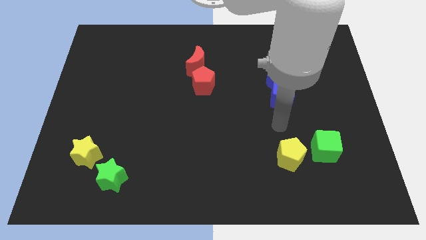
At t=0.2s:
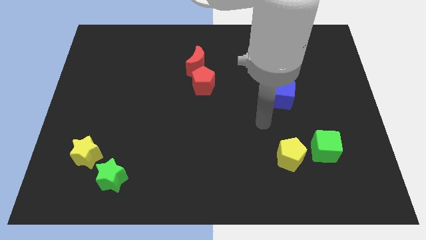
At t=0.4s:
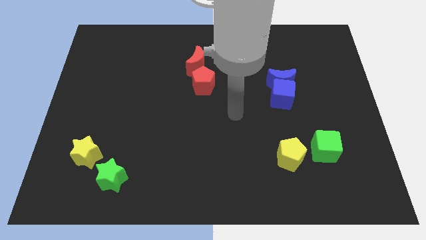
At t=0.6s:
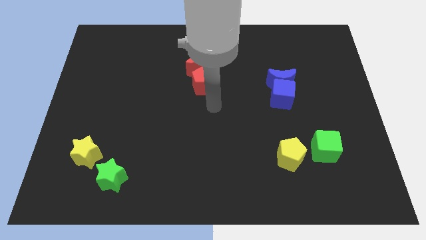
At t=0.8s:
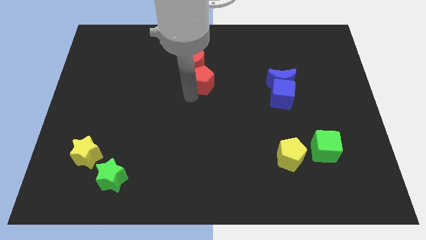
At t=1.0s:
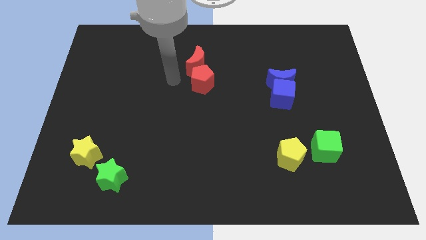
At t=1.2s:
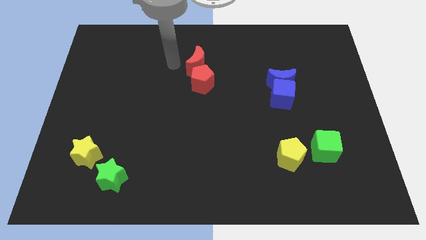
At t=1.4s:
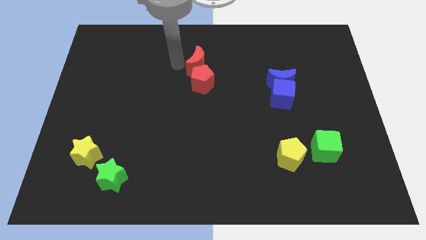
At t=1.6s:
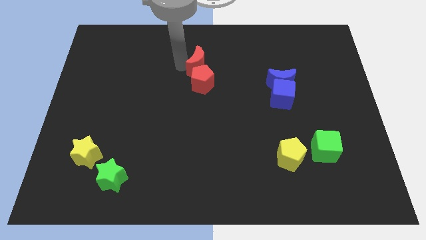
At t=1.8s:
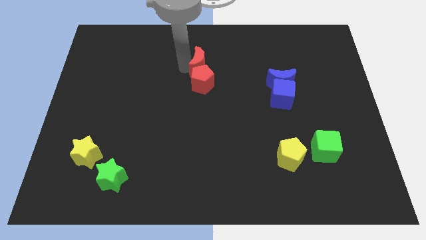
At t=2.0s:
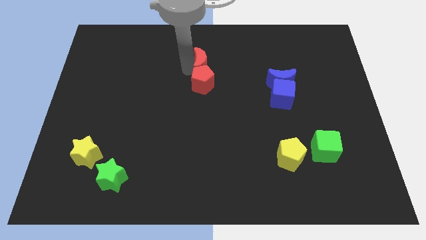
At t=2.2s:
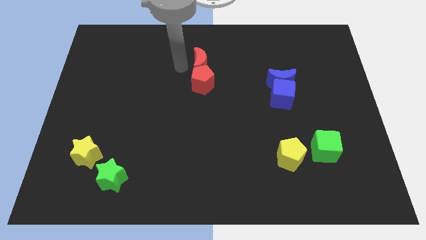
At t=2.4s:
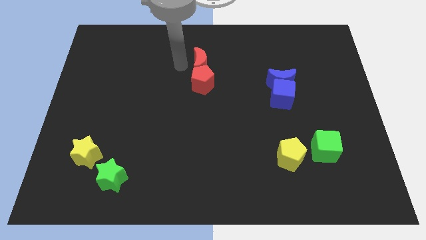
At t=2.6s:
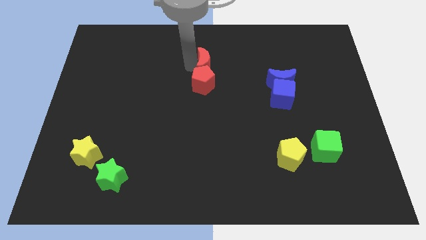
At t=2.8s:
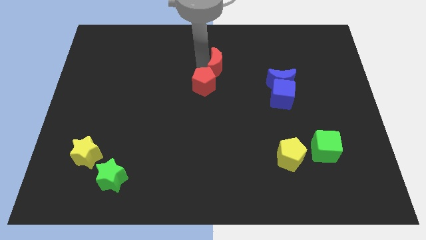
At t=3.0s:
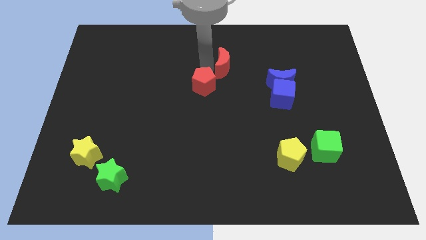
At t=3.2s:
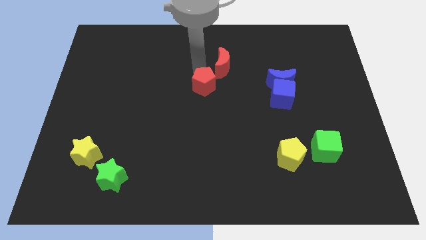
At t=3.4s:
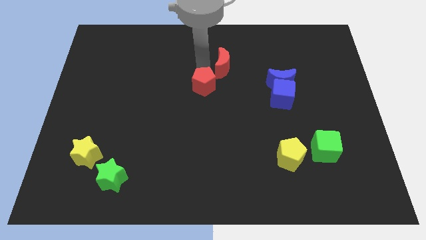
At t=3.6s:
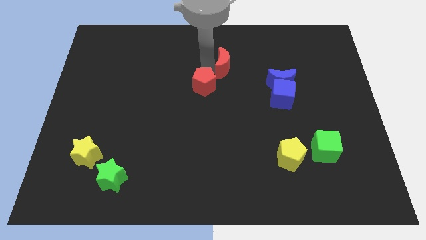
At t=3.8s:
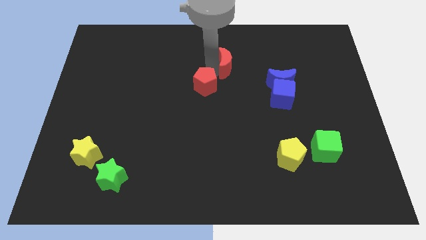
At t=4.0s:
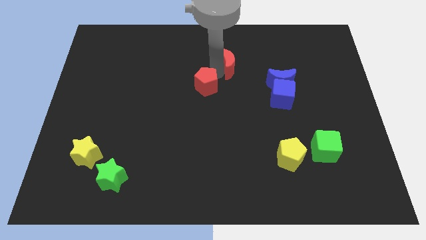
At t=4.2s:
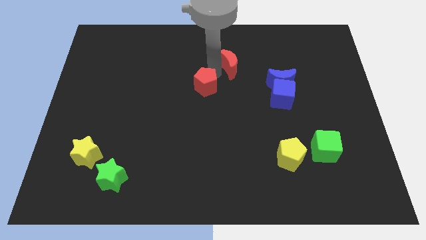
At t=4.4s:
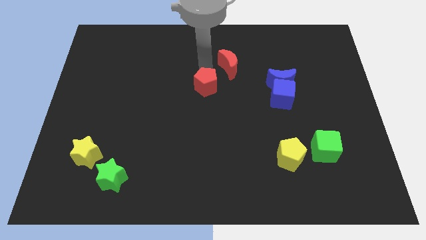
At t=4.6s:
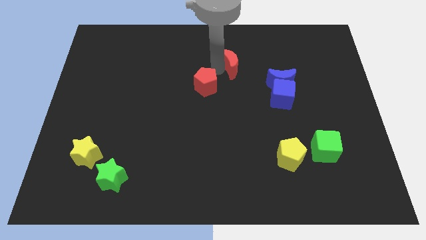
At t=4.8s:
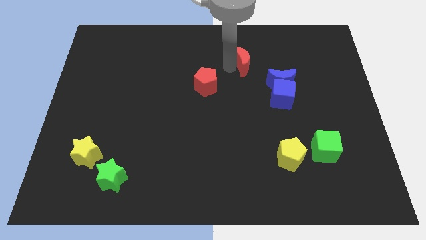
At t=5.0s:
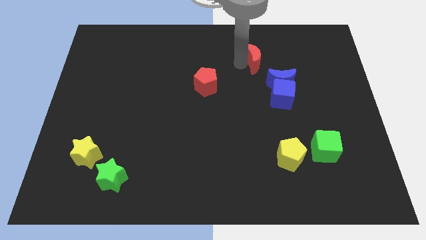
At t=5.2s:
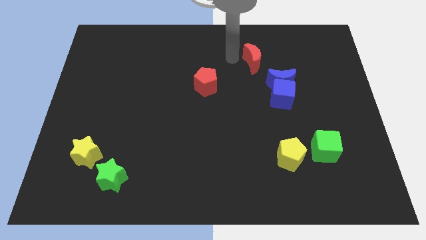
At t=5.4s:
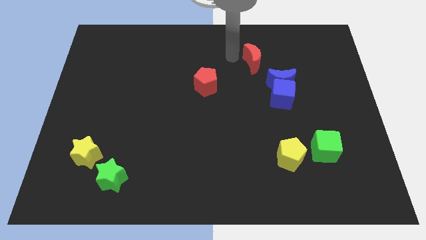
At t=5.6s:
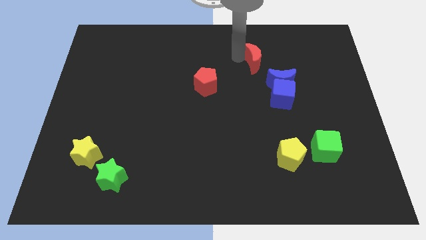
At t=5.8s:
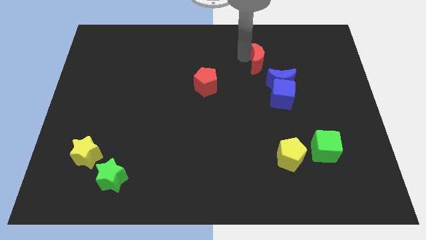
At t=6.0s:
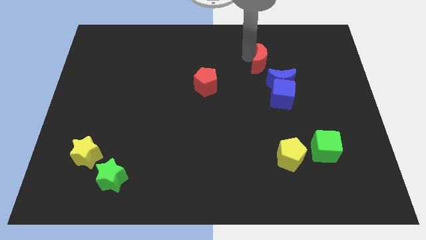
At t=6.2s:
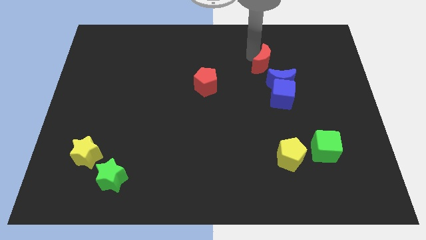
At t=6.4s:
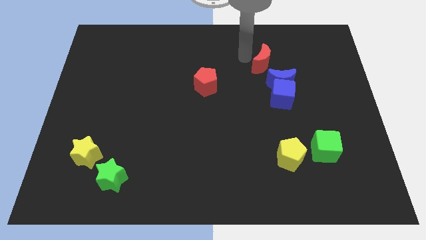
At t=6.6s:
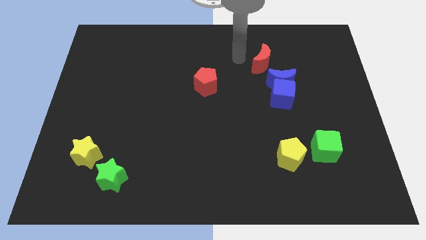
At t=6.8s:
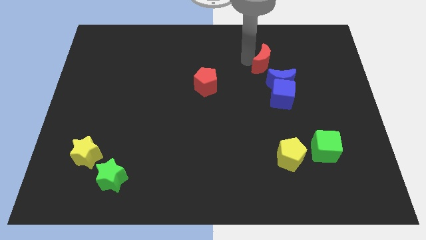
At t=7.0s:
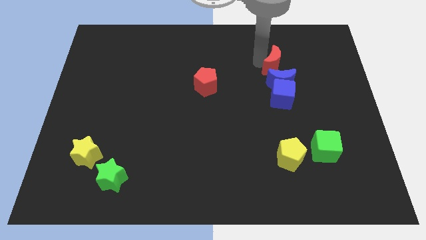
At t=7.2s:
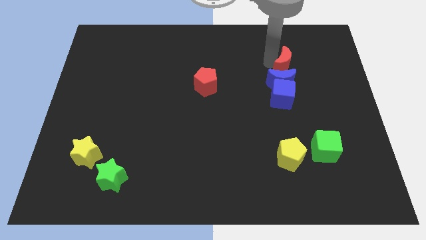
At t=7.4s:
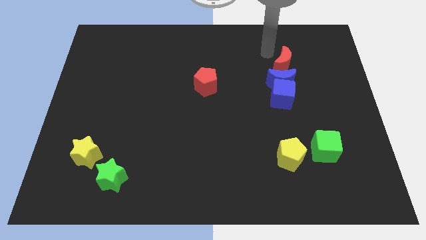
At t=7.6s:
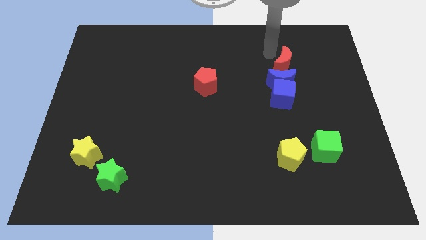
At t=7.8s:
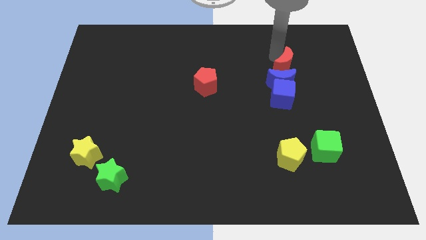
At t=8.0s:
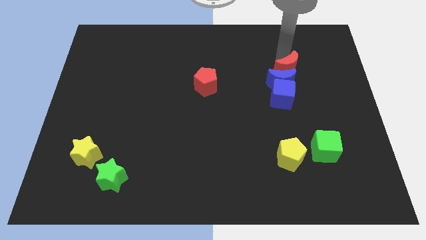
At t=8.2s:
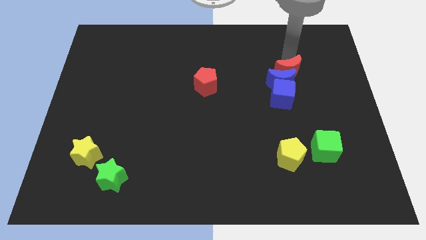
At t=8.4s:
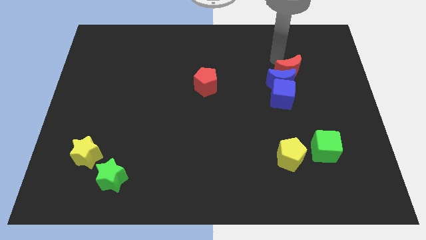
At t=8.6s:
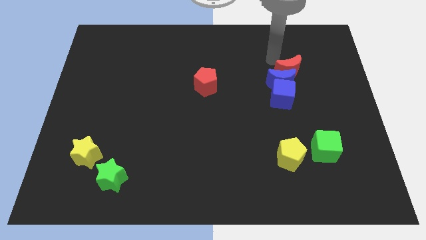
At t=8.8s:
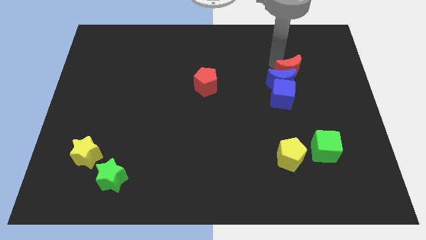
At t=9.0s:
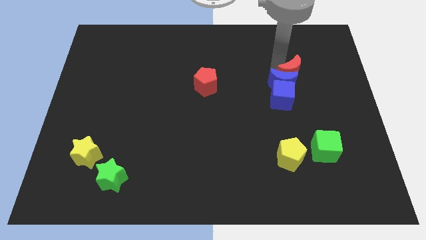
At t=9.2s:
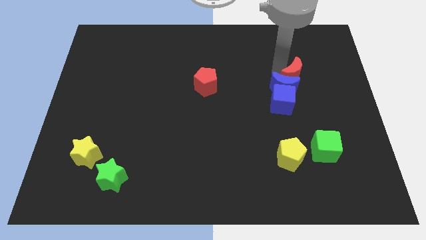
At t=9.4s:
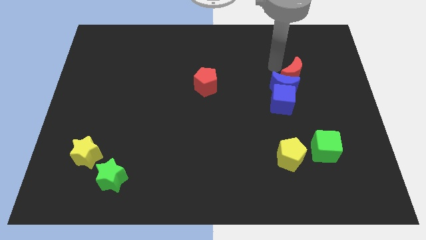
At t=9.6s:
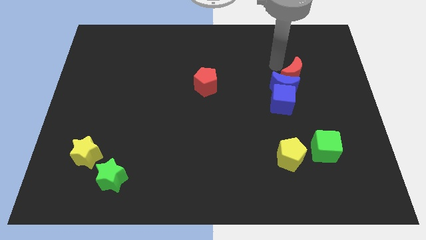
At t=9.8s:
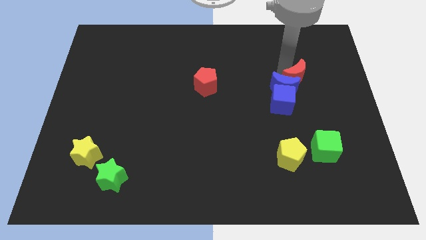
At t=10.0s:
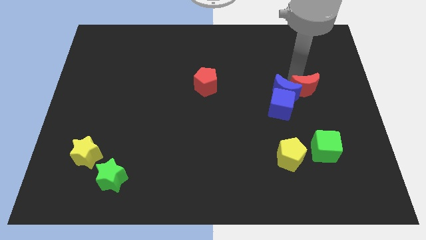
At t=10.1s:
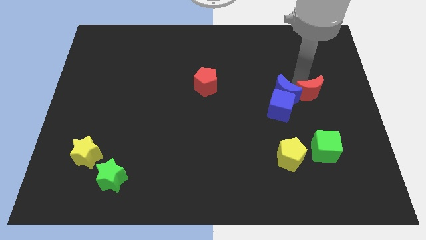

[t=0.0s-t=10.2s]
push the red moon to the right of the blue cube

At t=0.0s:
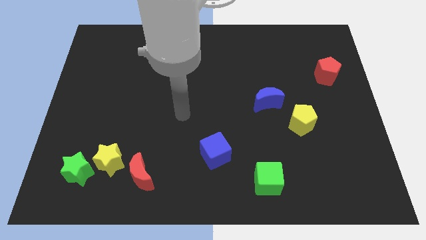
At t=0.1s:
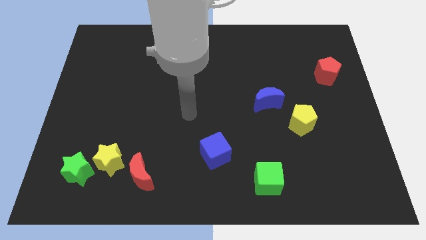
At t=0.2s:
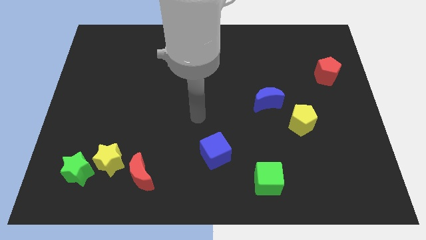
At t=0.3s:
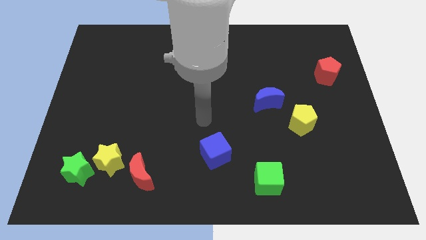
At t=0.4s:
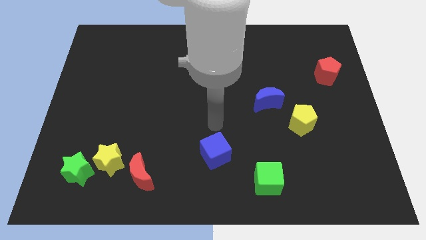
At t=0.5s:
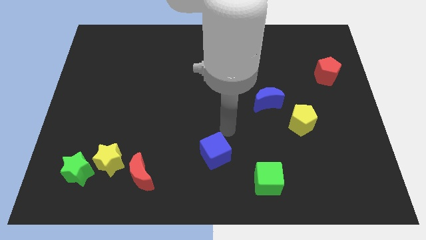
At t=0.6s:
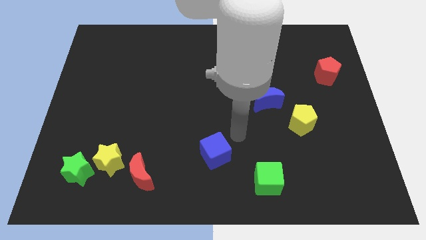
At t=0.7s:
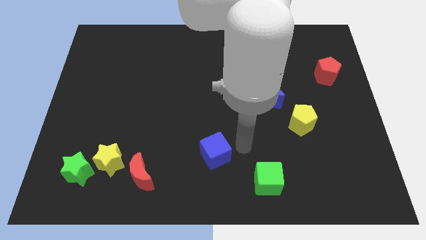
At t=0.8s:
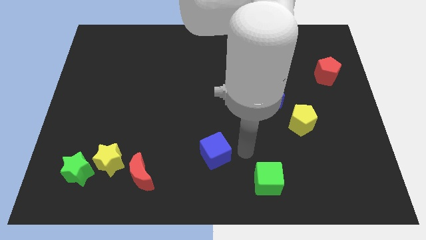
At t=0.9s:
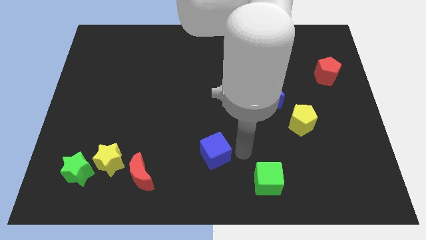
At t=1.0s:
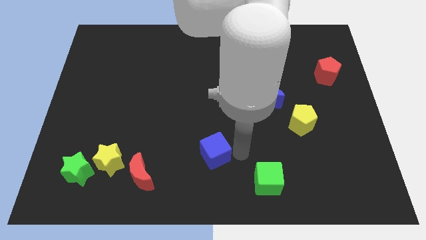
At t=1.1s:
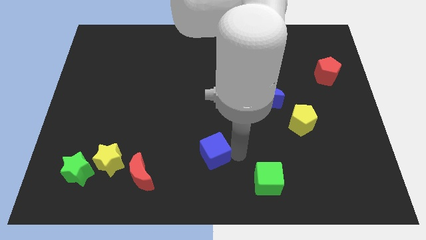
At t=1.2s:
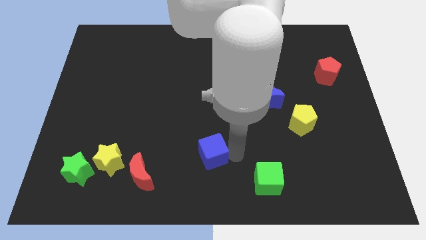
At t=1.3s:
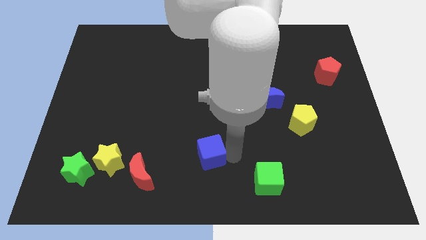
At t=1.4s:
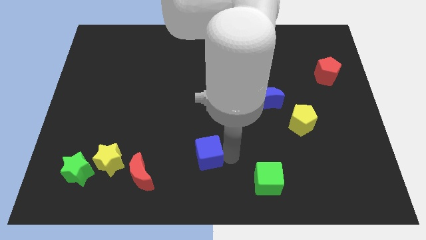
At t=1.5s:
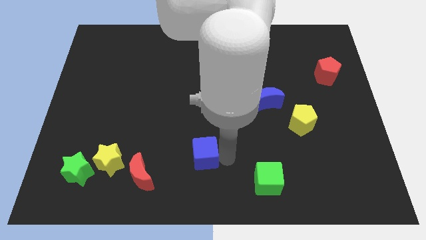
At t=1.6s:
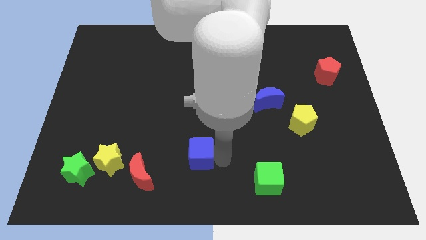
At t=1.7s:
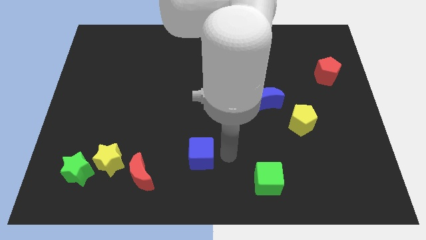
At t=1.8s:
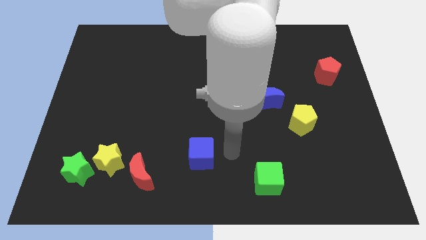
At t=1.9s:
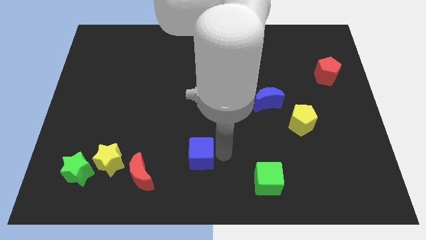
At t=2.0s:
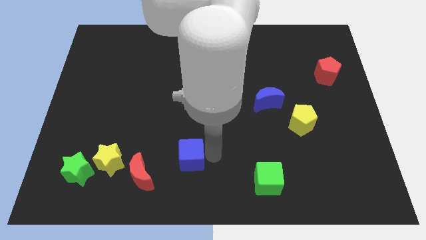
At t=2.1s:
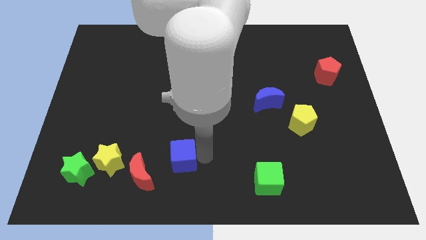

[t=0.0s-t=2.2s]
put the blue cube right of the yellow star
